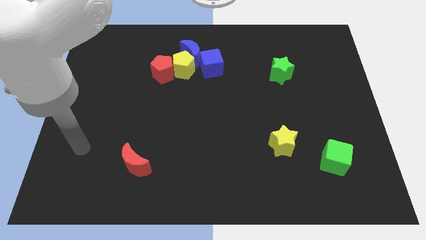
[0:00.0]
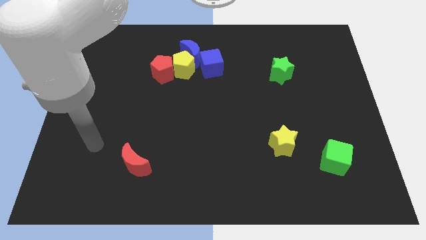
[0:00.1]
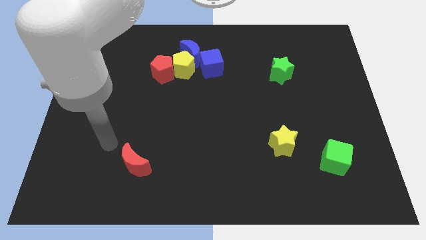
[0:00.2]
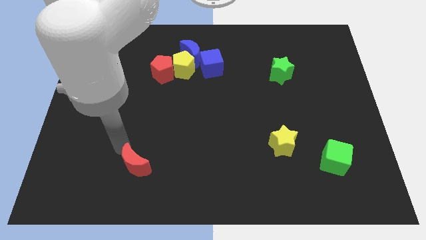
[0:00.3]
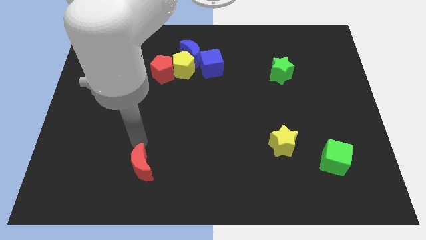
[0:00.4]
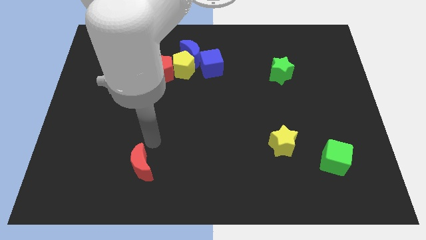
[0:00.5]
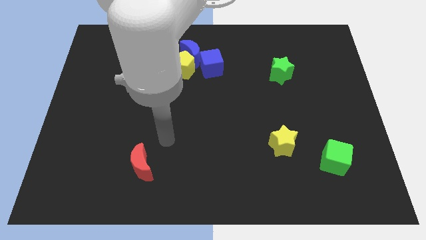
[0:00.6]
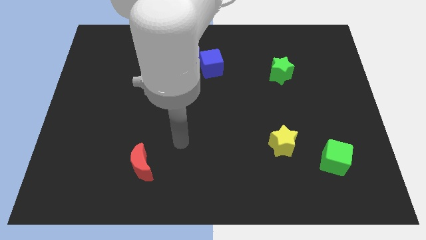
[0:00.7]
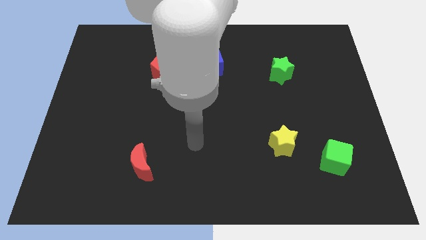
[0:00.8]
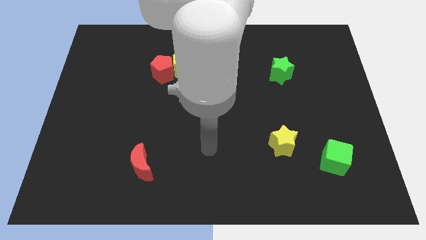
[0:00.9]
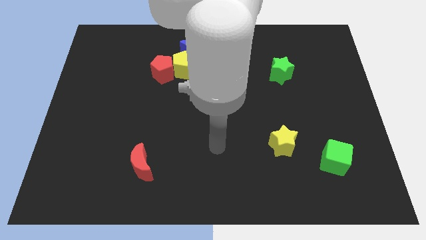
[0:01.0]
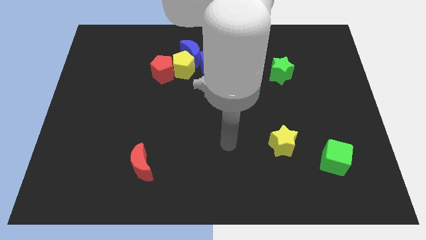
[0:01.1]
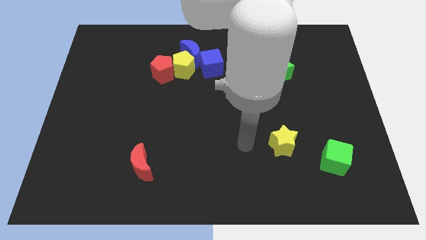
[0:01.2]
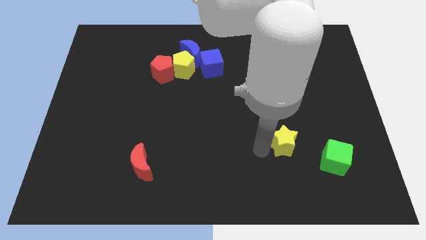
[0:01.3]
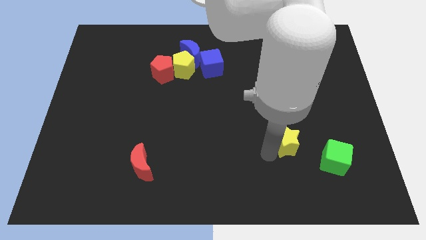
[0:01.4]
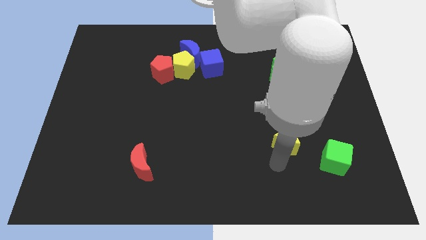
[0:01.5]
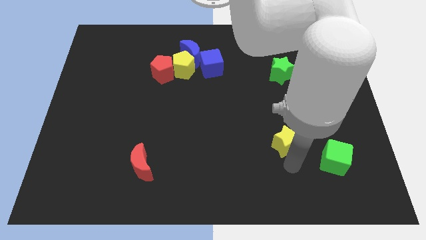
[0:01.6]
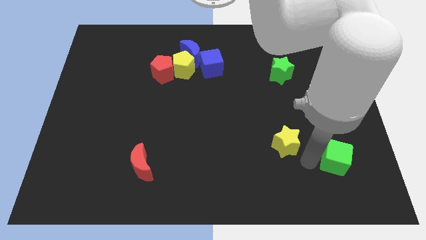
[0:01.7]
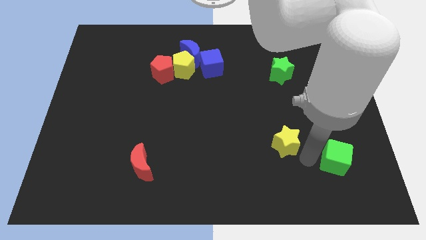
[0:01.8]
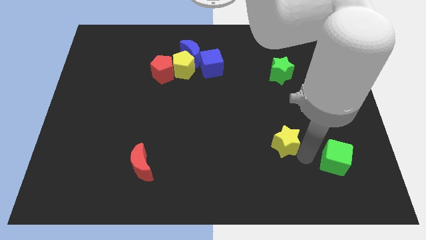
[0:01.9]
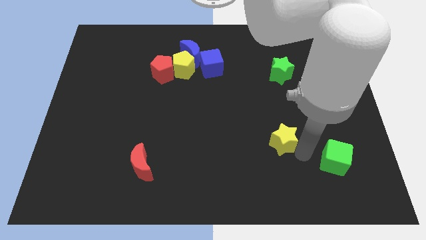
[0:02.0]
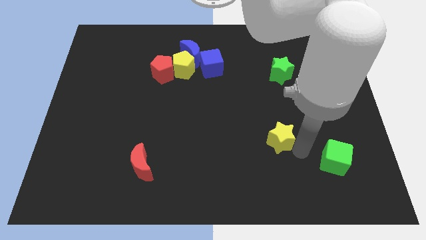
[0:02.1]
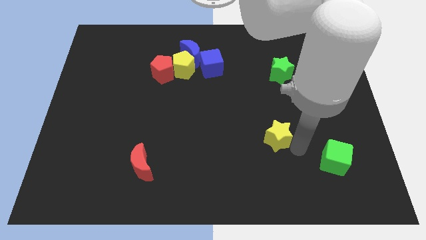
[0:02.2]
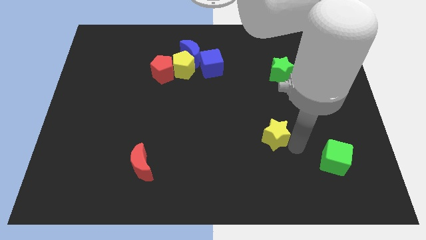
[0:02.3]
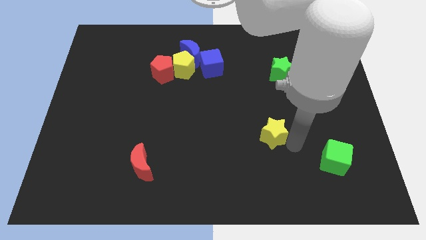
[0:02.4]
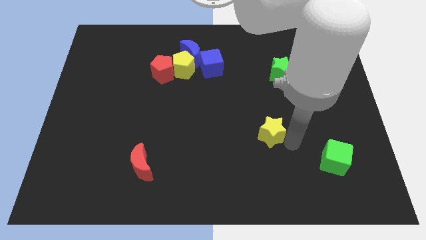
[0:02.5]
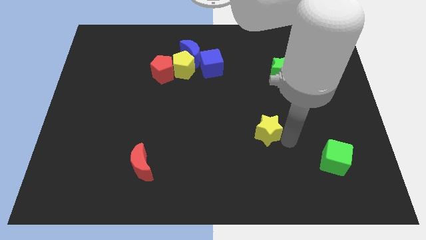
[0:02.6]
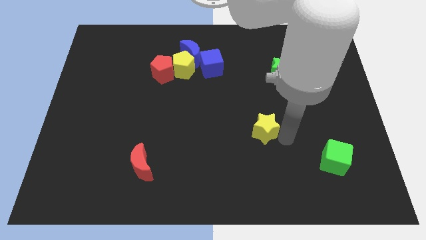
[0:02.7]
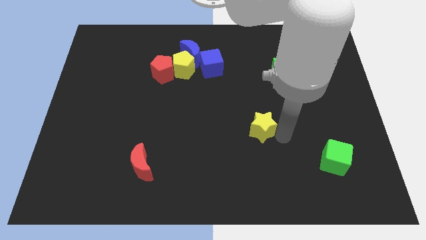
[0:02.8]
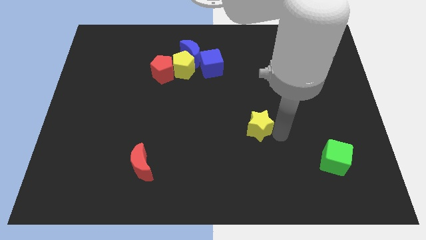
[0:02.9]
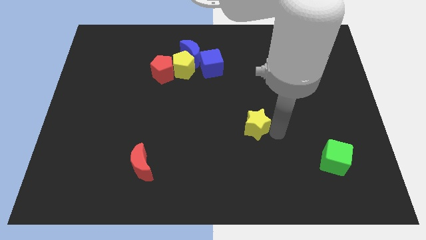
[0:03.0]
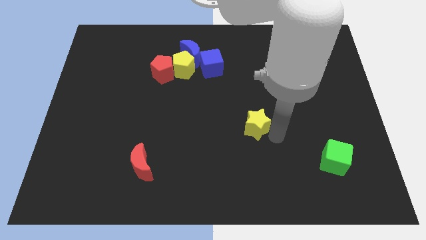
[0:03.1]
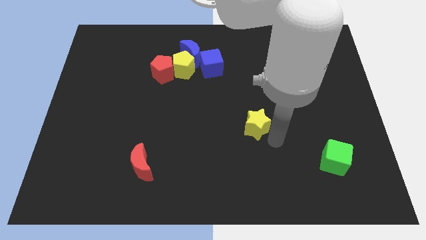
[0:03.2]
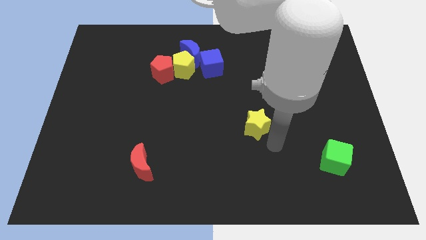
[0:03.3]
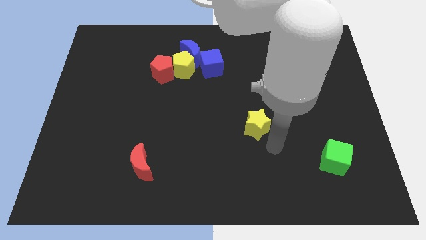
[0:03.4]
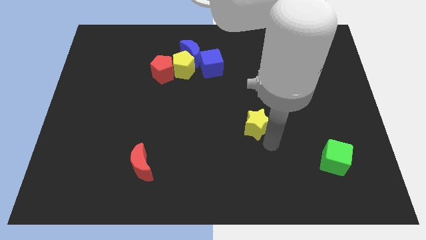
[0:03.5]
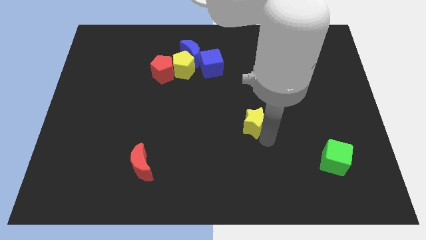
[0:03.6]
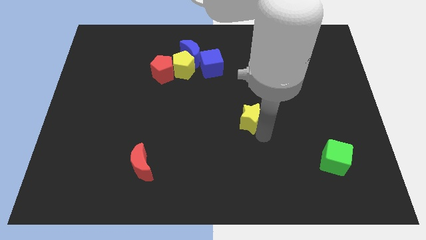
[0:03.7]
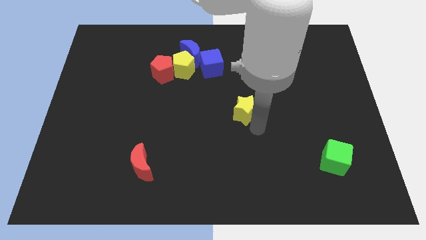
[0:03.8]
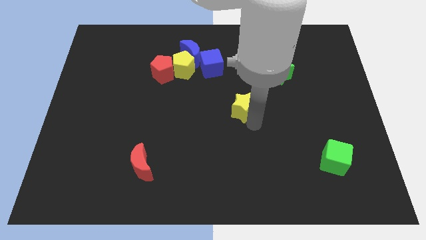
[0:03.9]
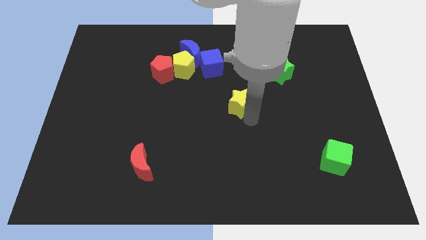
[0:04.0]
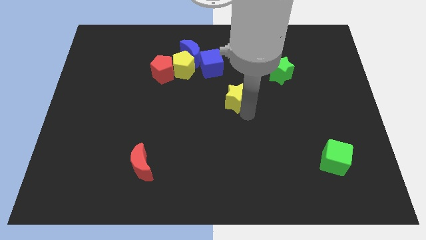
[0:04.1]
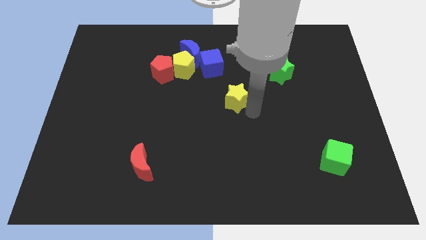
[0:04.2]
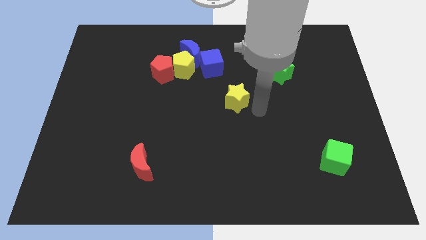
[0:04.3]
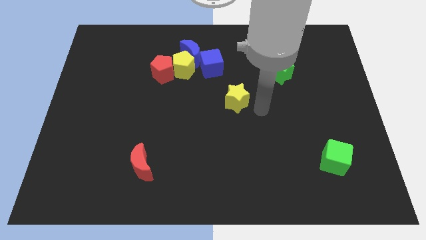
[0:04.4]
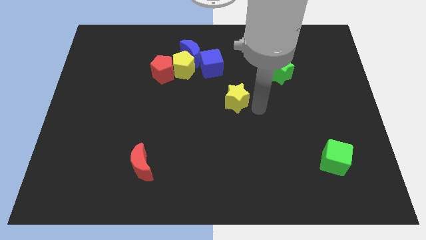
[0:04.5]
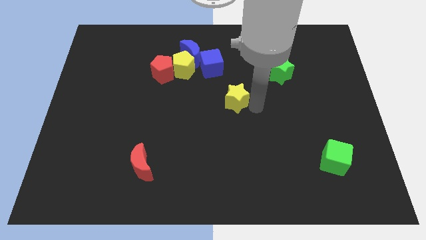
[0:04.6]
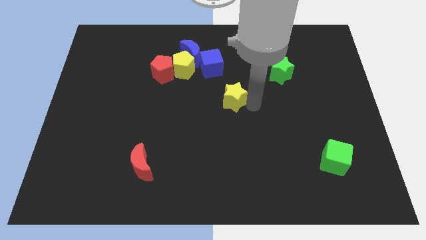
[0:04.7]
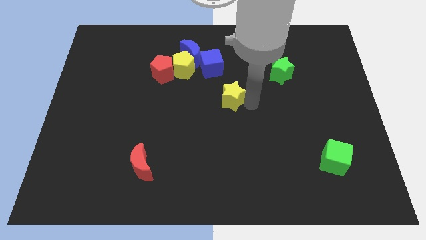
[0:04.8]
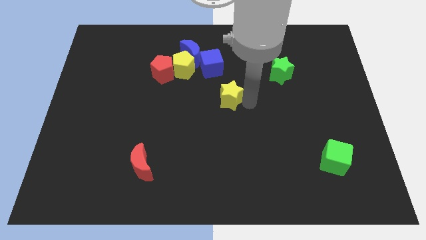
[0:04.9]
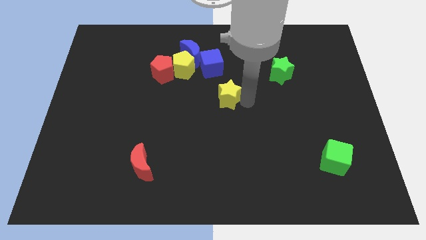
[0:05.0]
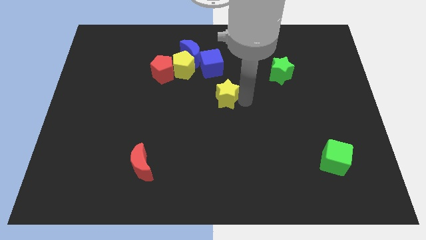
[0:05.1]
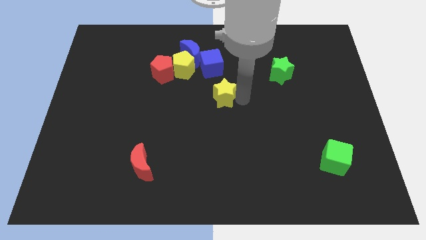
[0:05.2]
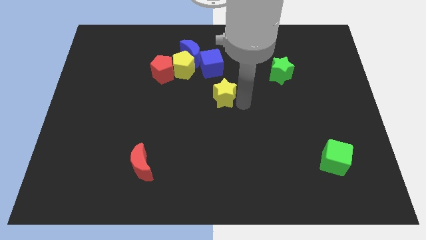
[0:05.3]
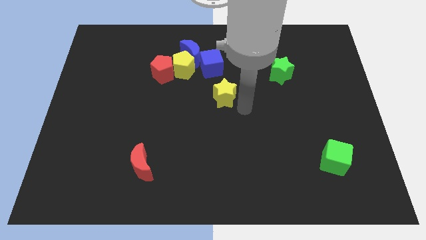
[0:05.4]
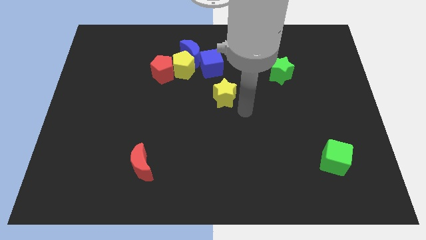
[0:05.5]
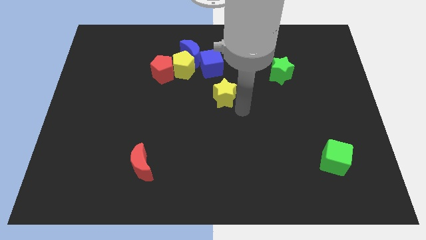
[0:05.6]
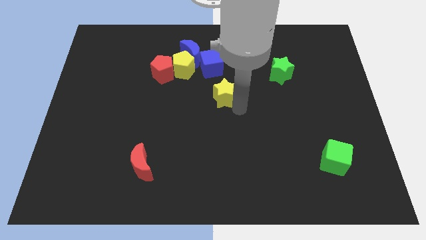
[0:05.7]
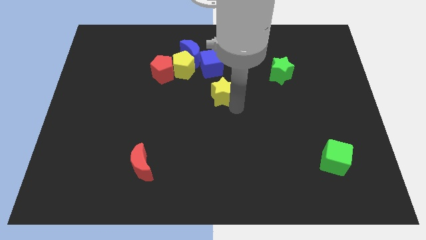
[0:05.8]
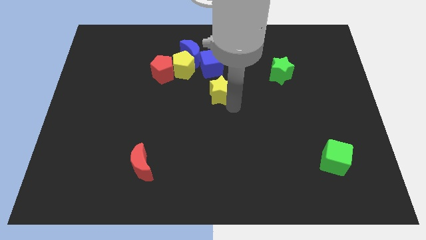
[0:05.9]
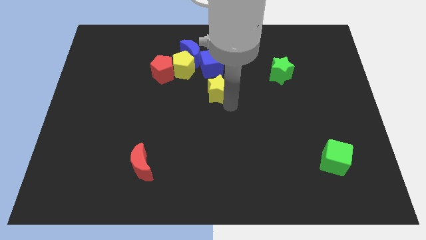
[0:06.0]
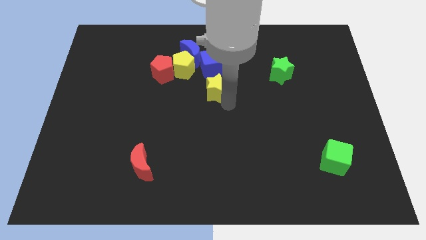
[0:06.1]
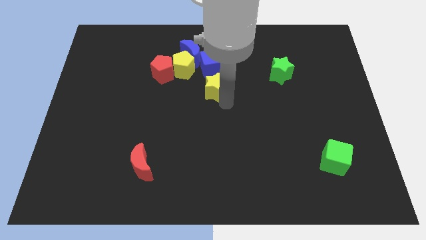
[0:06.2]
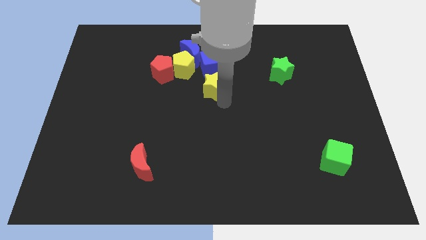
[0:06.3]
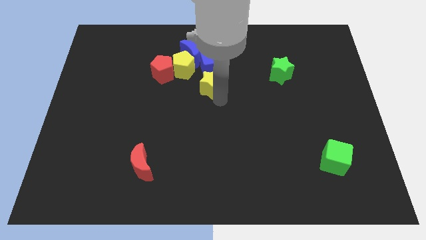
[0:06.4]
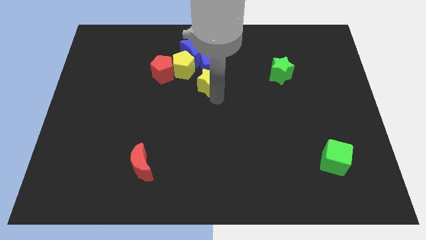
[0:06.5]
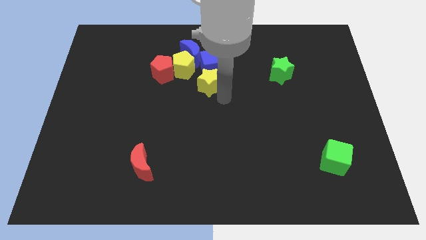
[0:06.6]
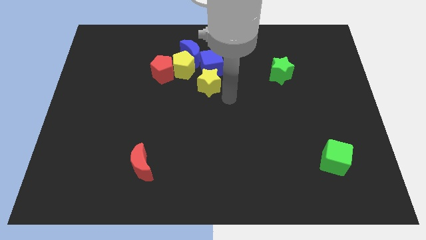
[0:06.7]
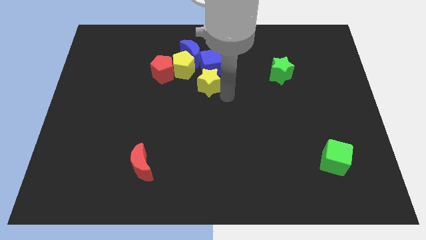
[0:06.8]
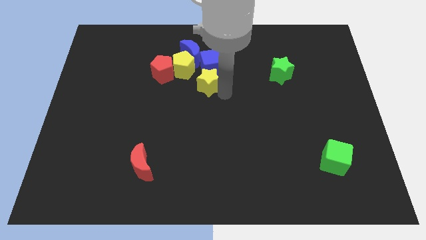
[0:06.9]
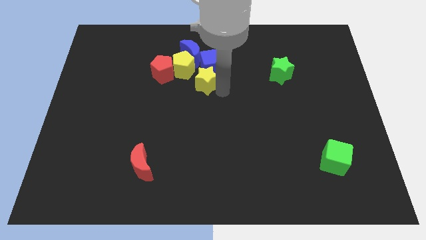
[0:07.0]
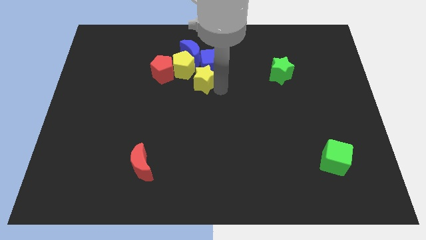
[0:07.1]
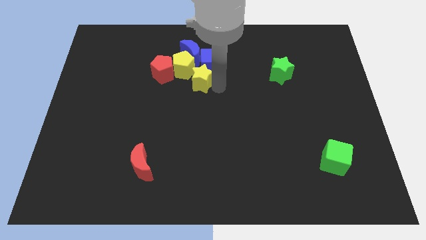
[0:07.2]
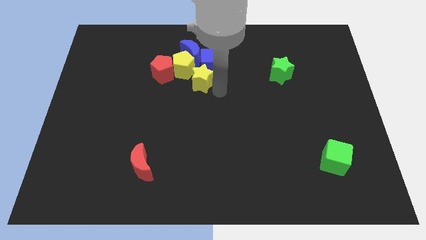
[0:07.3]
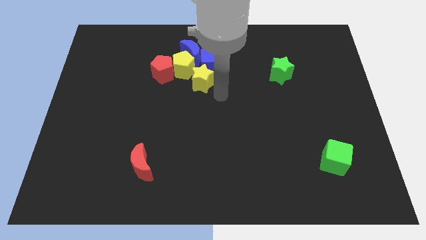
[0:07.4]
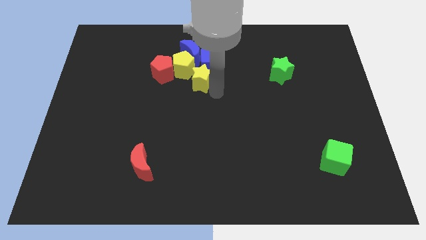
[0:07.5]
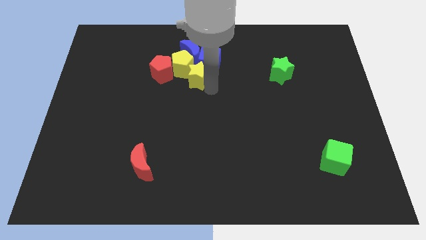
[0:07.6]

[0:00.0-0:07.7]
push the yellow star towards the yellow pentagon

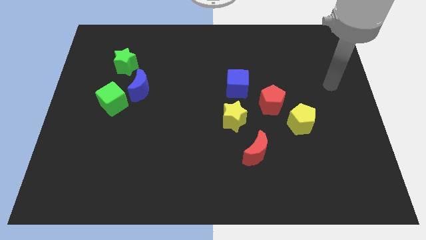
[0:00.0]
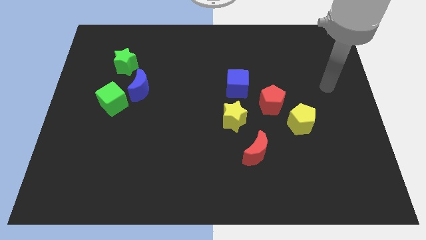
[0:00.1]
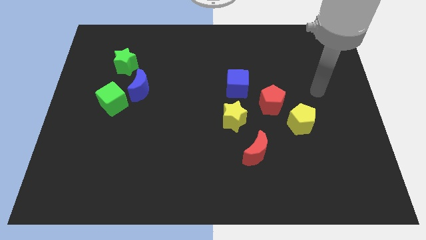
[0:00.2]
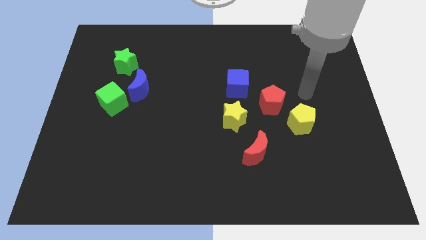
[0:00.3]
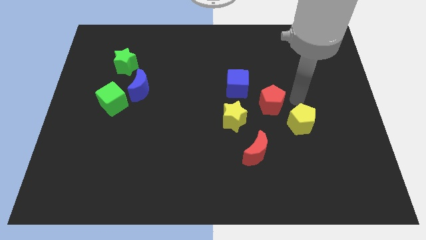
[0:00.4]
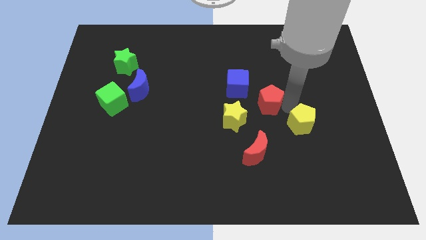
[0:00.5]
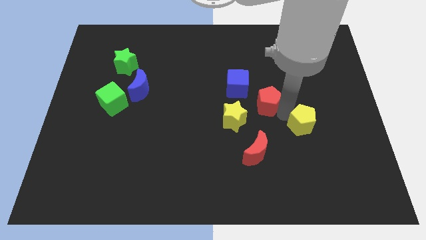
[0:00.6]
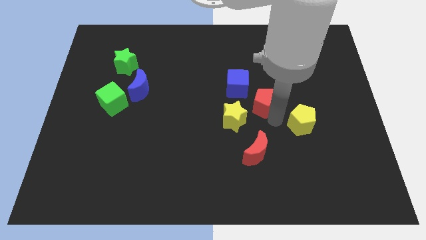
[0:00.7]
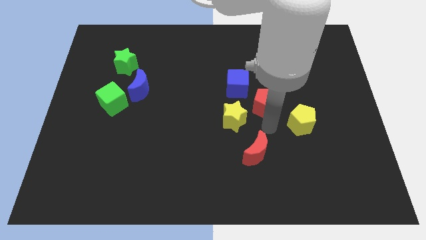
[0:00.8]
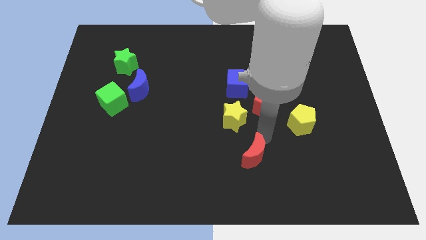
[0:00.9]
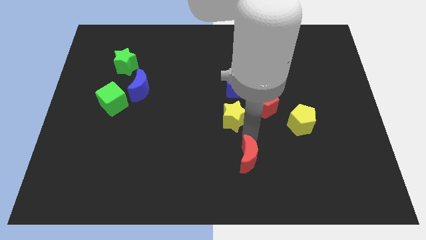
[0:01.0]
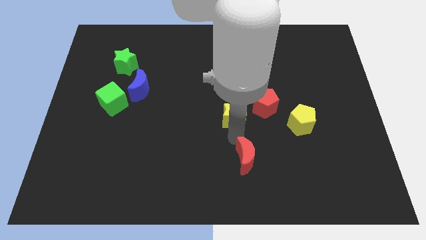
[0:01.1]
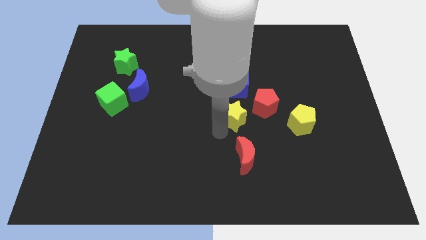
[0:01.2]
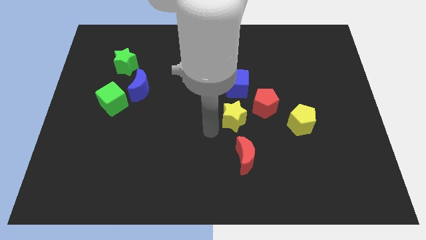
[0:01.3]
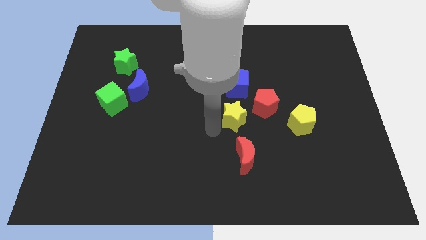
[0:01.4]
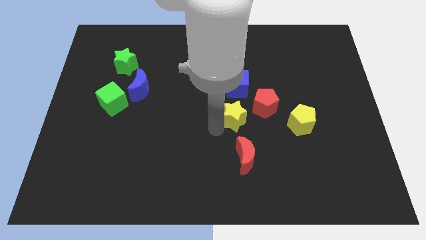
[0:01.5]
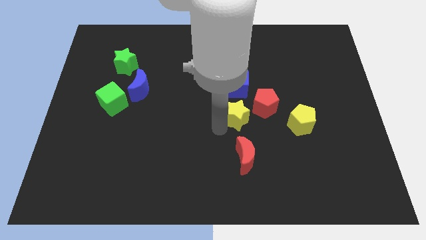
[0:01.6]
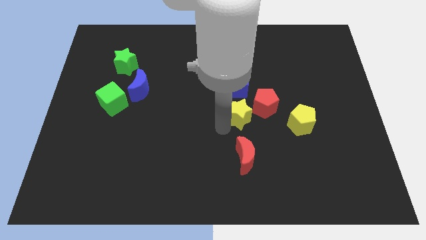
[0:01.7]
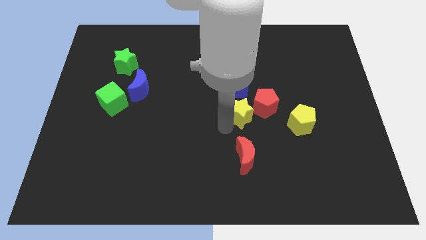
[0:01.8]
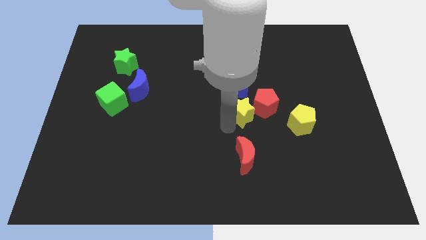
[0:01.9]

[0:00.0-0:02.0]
move the yellow star next to the red pentagon
